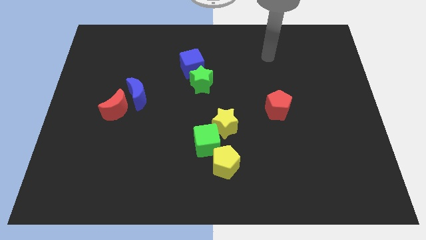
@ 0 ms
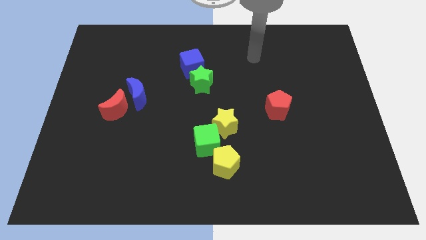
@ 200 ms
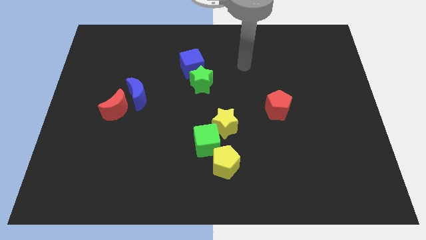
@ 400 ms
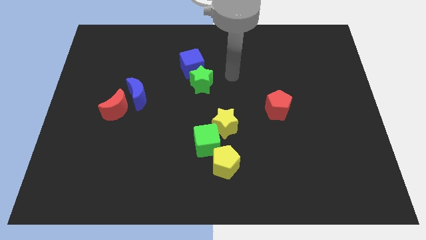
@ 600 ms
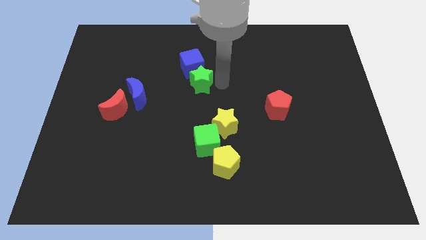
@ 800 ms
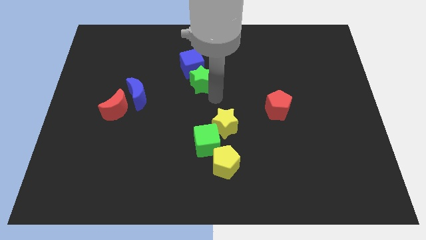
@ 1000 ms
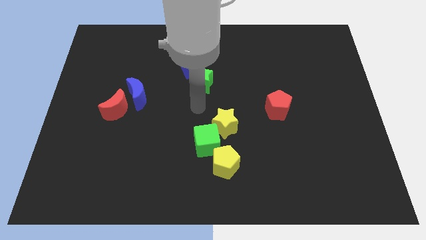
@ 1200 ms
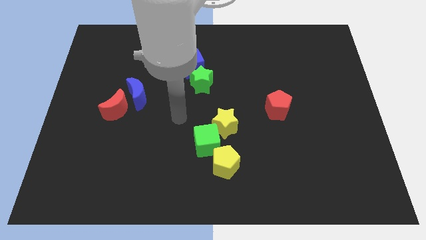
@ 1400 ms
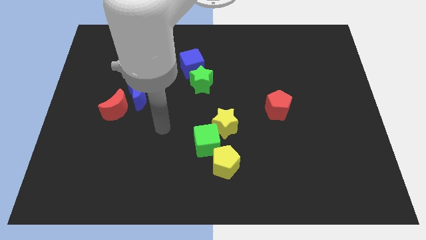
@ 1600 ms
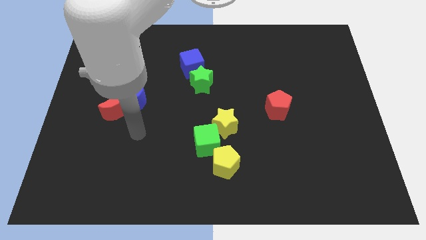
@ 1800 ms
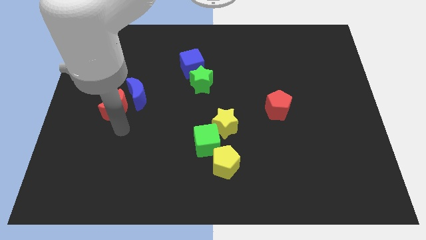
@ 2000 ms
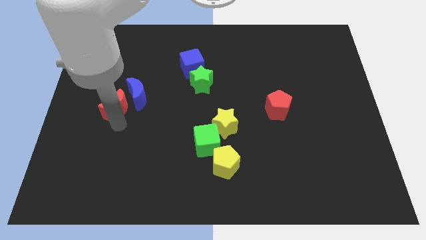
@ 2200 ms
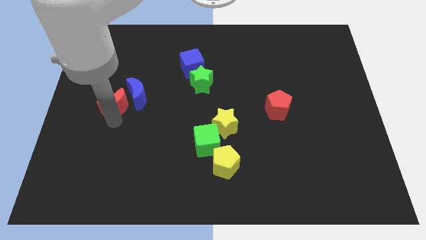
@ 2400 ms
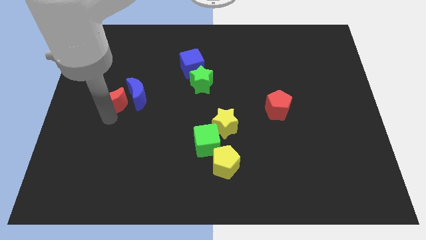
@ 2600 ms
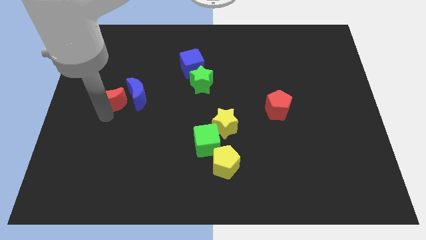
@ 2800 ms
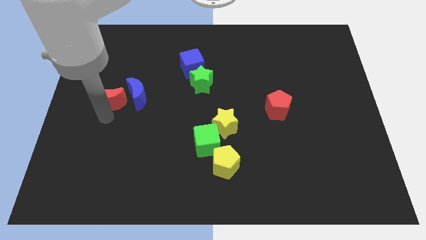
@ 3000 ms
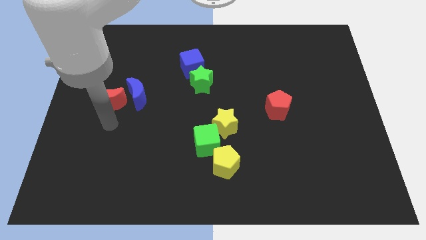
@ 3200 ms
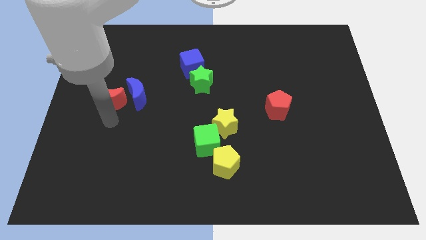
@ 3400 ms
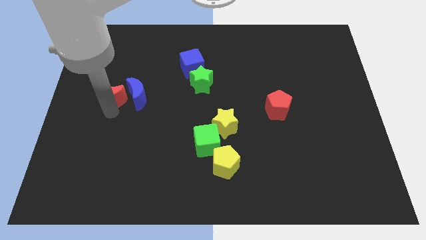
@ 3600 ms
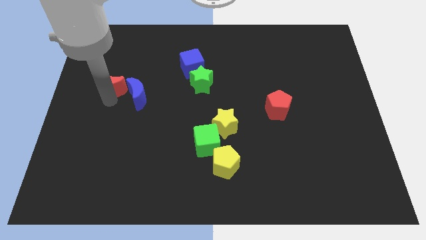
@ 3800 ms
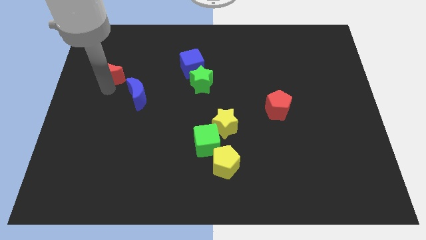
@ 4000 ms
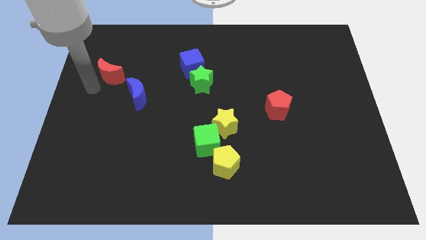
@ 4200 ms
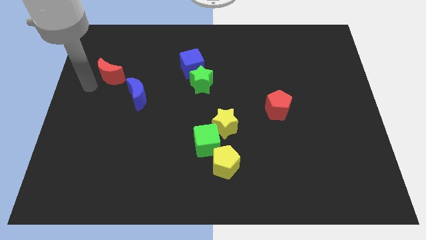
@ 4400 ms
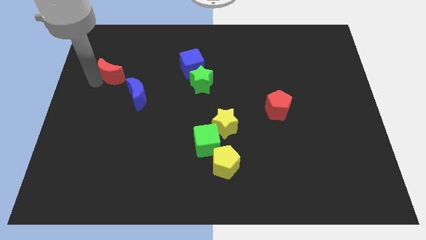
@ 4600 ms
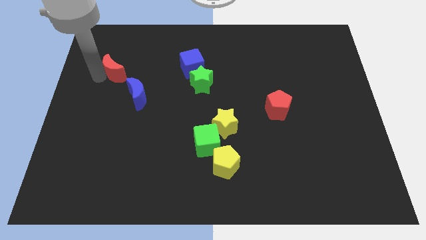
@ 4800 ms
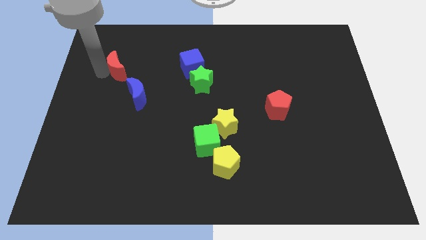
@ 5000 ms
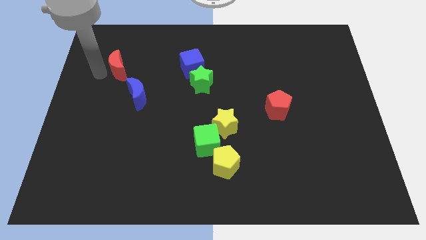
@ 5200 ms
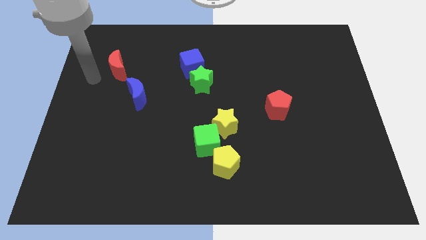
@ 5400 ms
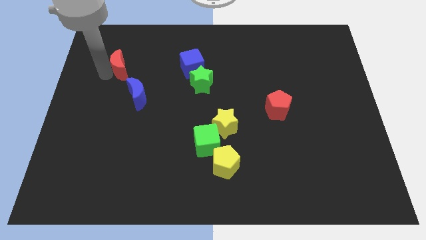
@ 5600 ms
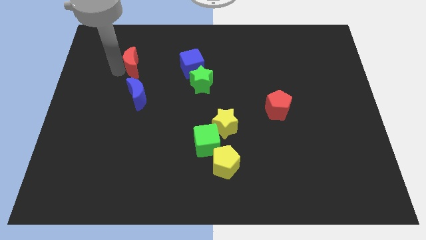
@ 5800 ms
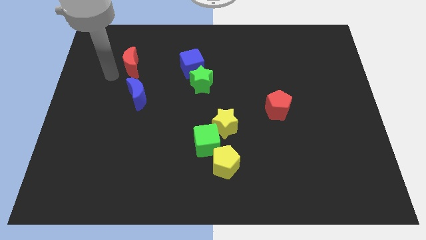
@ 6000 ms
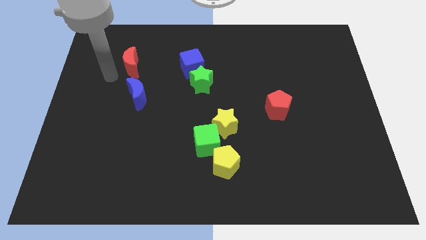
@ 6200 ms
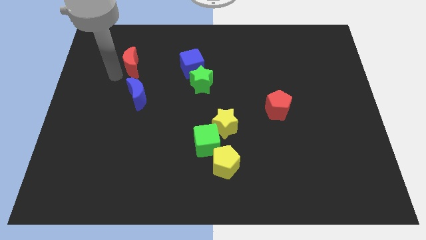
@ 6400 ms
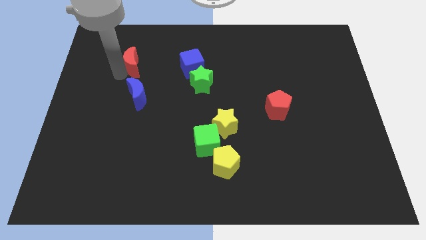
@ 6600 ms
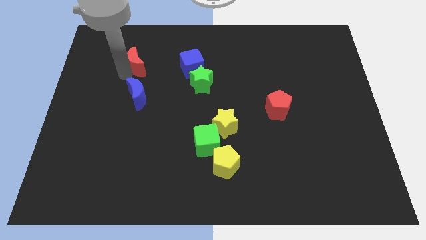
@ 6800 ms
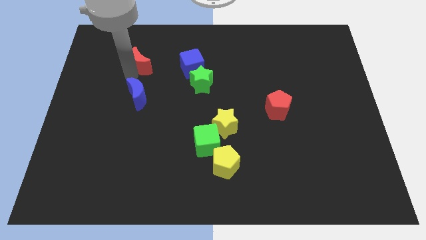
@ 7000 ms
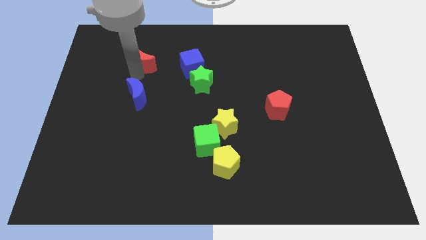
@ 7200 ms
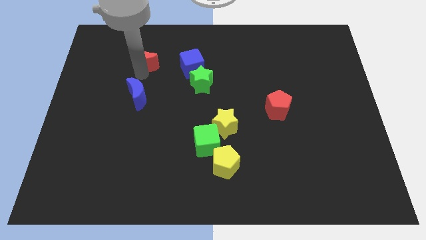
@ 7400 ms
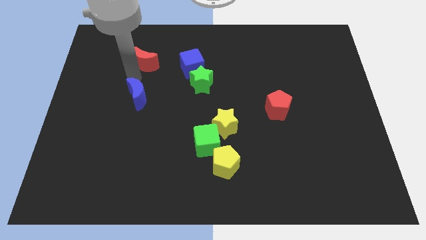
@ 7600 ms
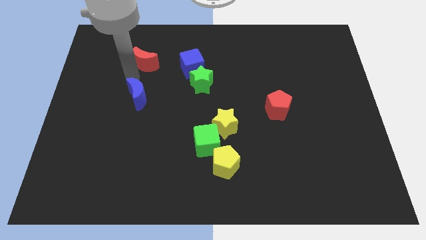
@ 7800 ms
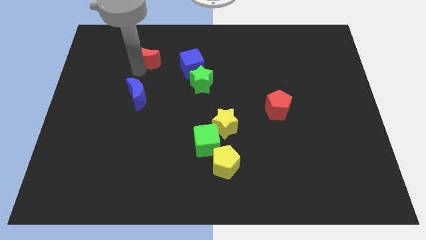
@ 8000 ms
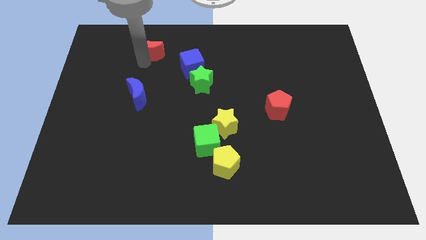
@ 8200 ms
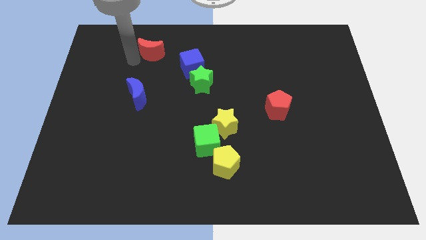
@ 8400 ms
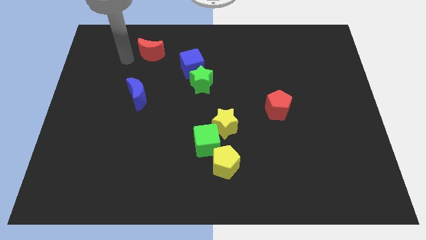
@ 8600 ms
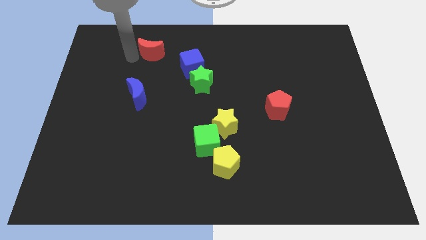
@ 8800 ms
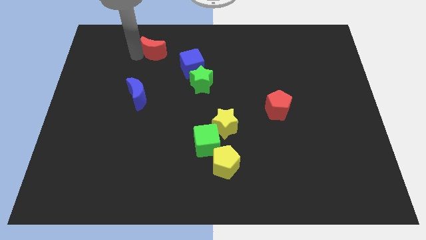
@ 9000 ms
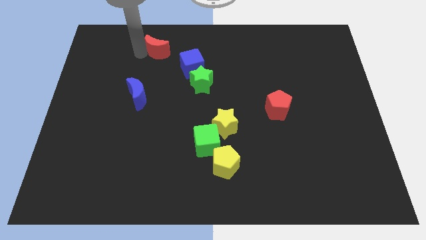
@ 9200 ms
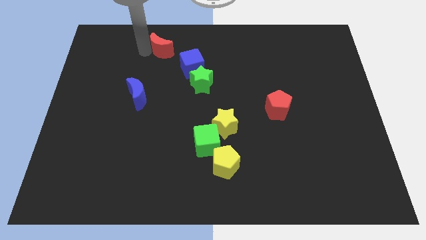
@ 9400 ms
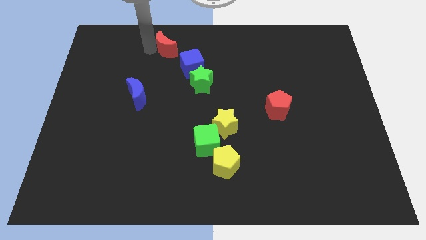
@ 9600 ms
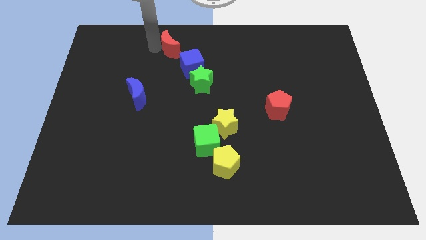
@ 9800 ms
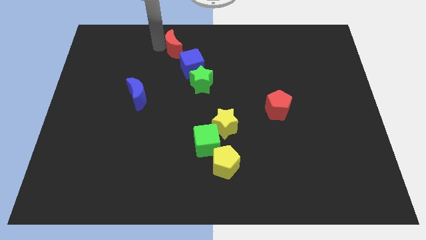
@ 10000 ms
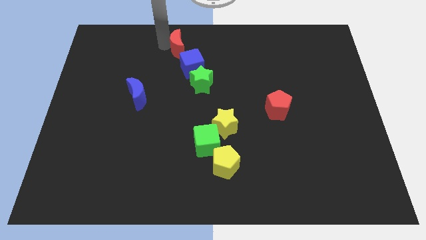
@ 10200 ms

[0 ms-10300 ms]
push the red moon to the top side
